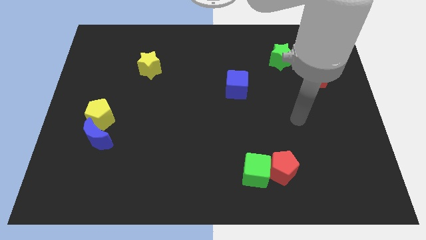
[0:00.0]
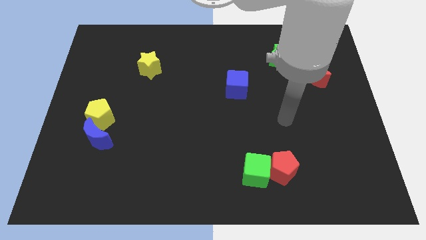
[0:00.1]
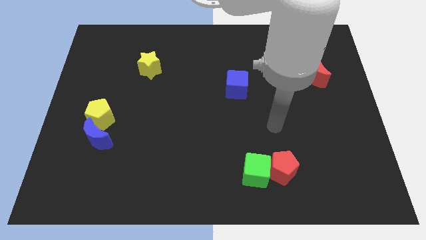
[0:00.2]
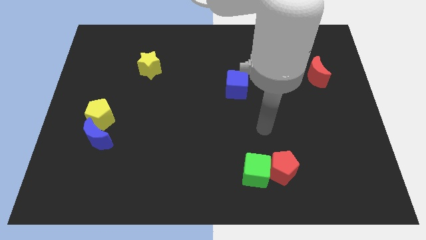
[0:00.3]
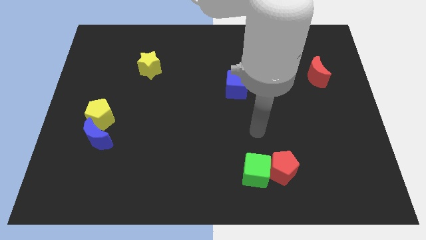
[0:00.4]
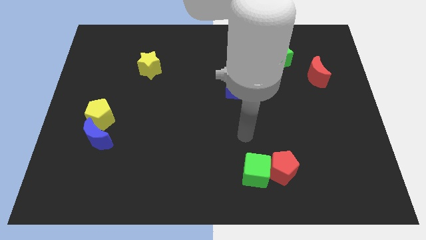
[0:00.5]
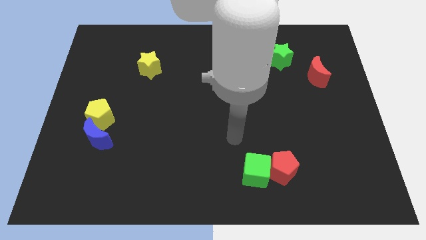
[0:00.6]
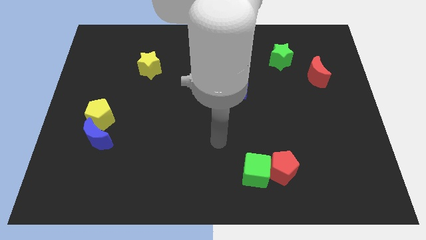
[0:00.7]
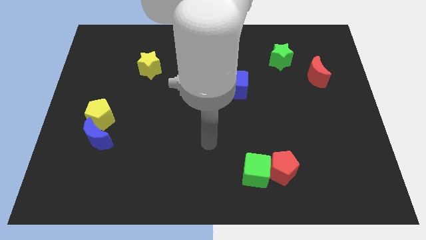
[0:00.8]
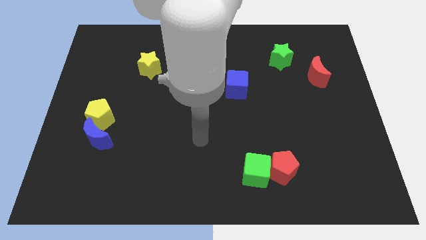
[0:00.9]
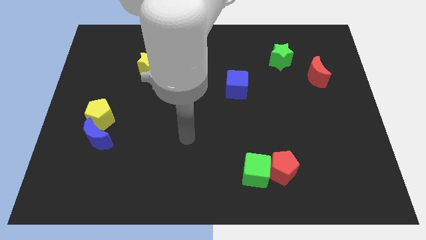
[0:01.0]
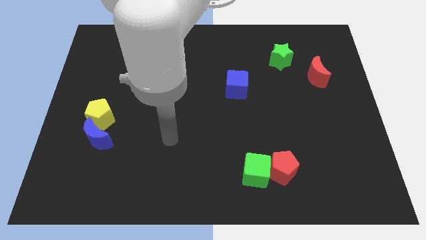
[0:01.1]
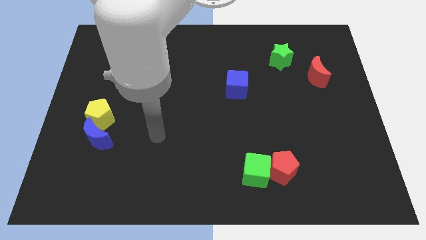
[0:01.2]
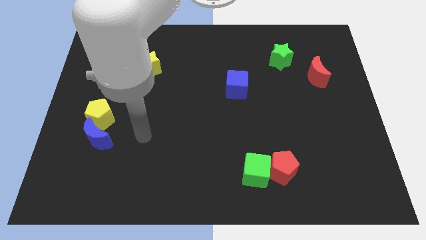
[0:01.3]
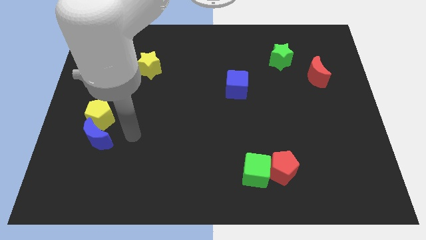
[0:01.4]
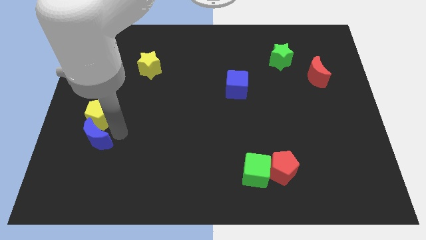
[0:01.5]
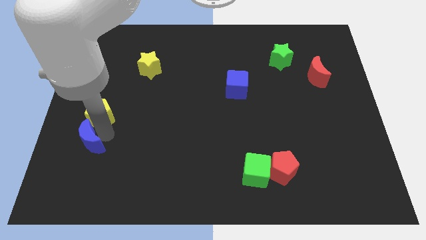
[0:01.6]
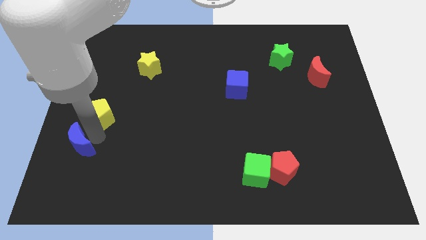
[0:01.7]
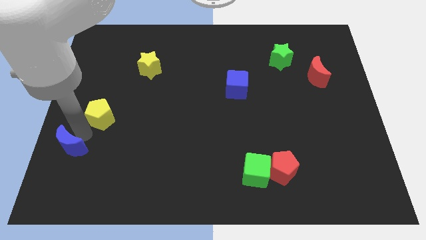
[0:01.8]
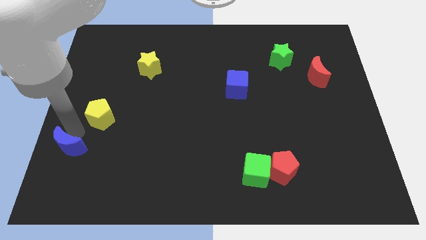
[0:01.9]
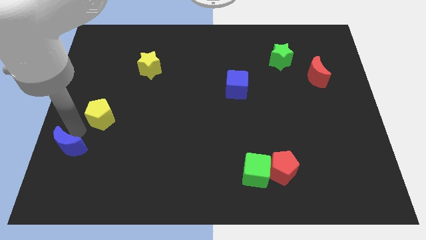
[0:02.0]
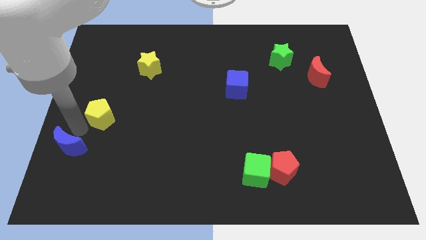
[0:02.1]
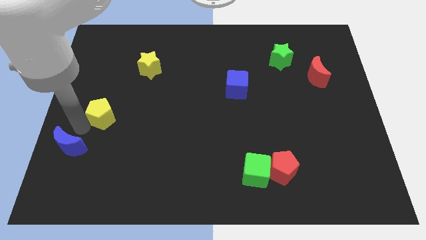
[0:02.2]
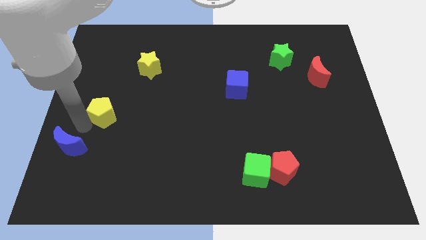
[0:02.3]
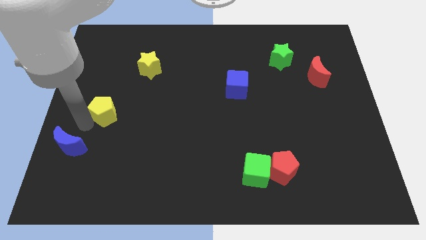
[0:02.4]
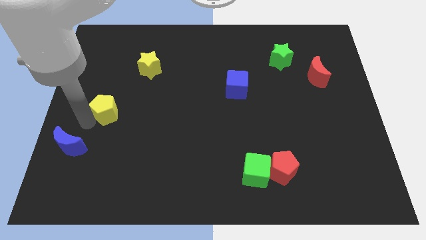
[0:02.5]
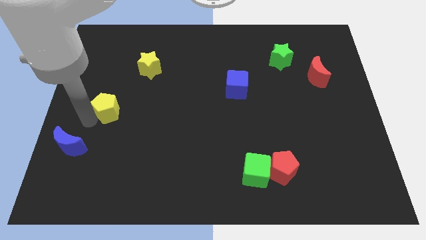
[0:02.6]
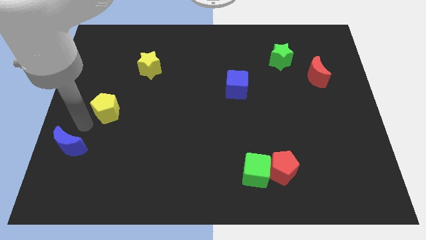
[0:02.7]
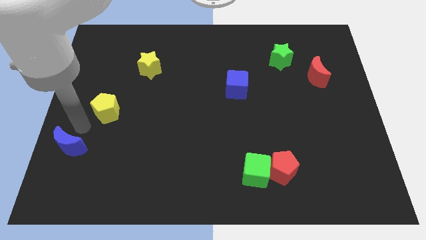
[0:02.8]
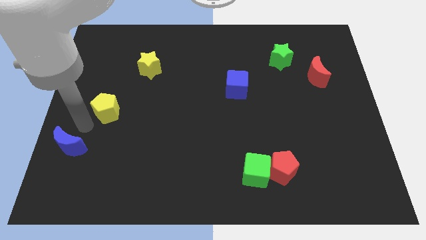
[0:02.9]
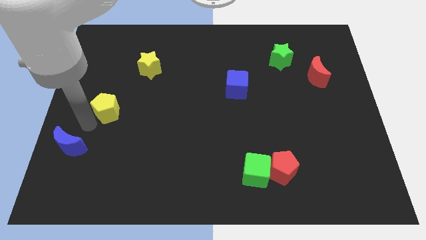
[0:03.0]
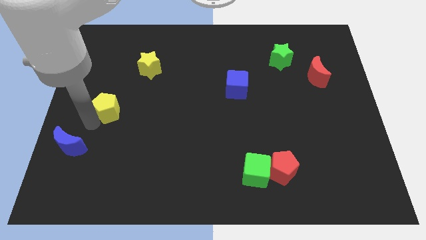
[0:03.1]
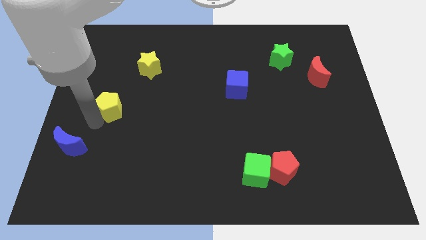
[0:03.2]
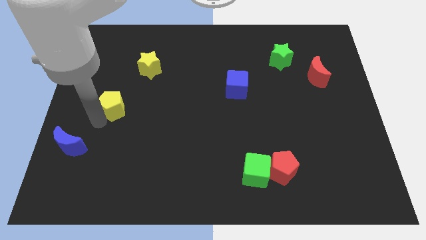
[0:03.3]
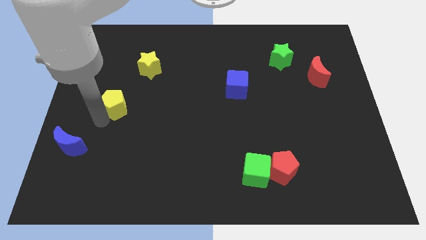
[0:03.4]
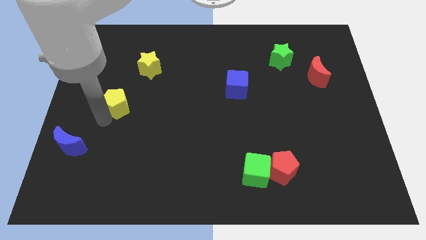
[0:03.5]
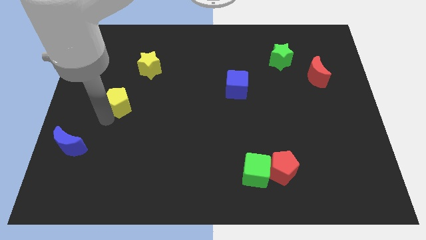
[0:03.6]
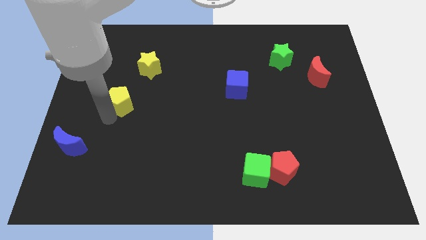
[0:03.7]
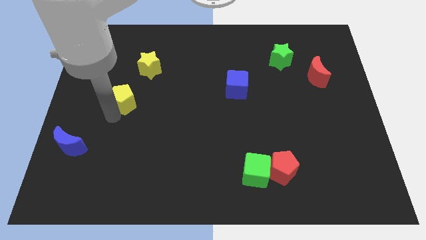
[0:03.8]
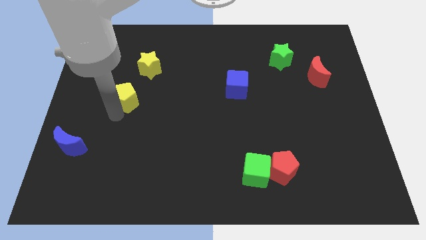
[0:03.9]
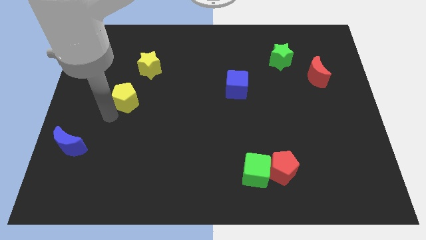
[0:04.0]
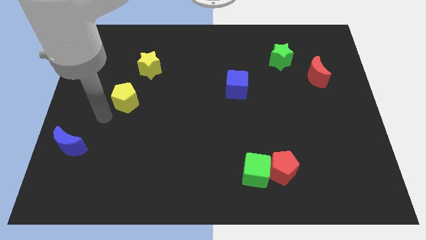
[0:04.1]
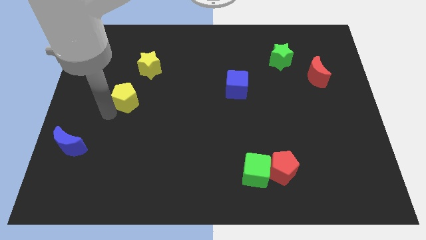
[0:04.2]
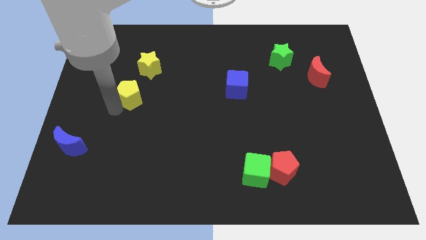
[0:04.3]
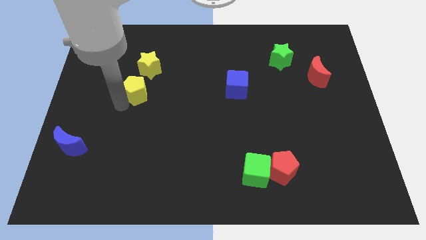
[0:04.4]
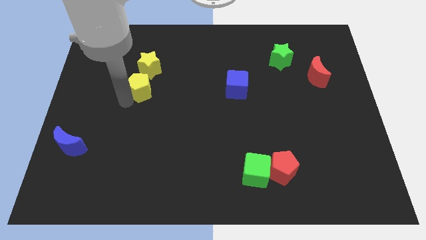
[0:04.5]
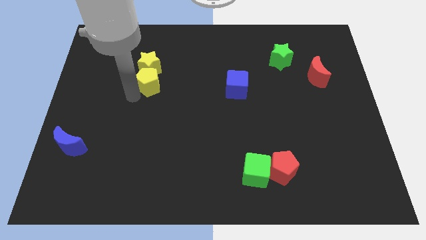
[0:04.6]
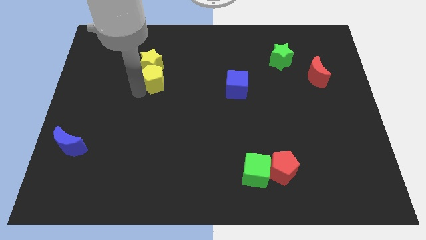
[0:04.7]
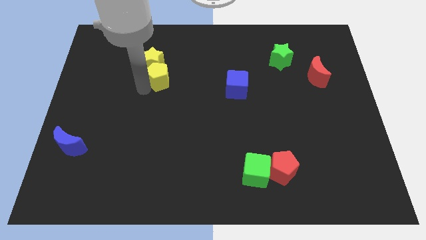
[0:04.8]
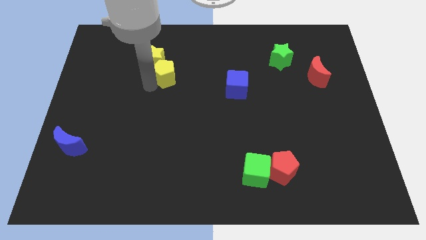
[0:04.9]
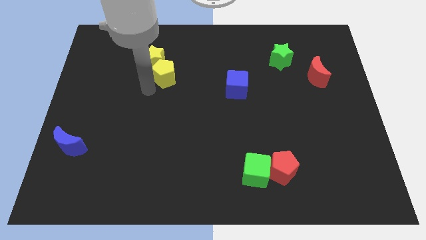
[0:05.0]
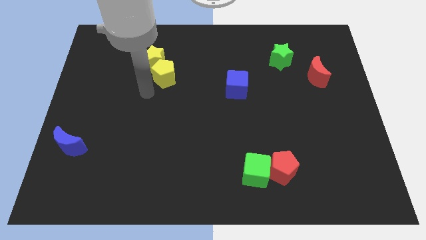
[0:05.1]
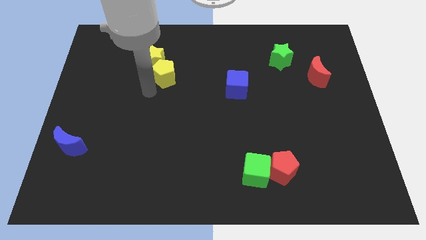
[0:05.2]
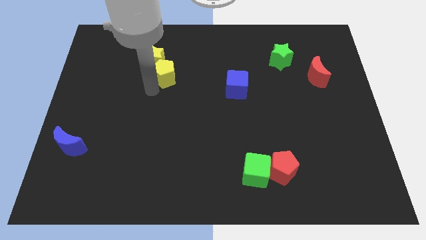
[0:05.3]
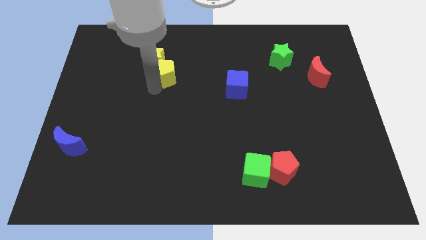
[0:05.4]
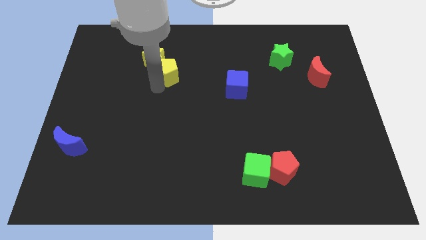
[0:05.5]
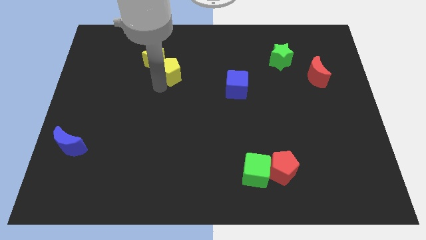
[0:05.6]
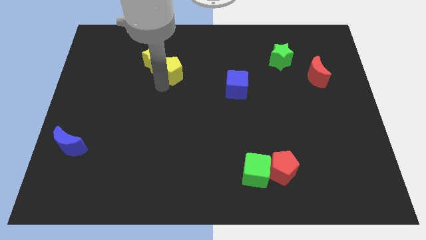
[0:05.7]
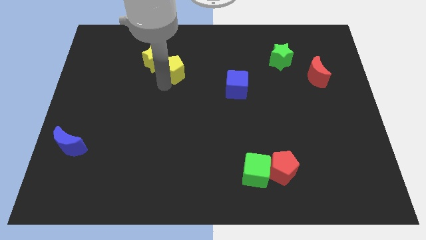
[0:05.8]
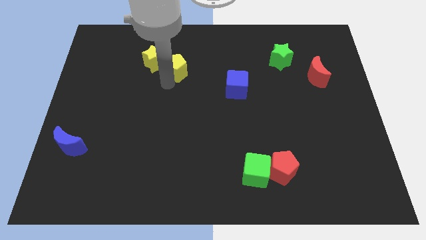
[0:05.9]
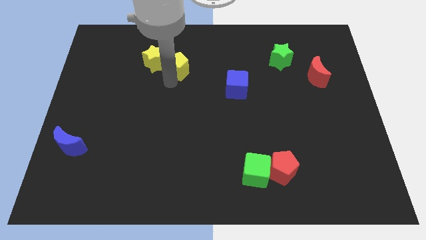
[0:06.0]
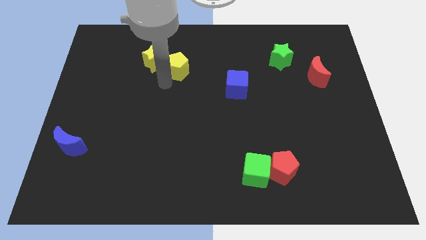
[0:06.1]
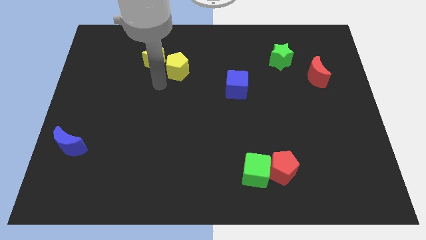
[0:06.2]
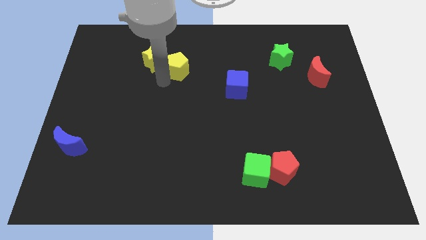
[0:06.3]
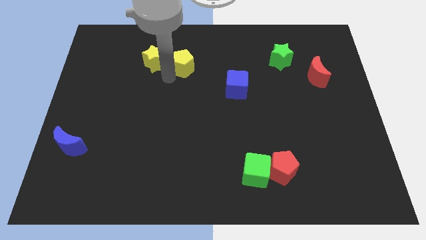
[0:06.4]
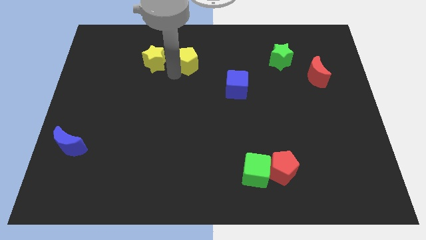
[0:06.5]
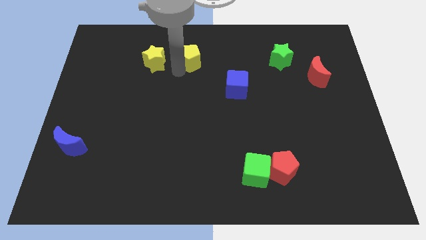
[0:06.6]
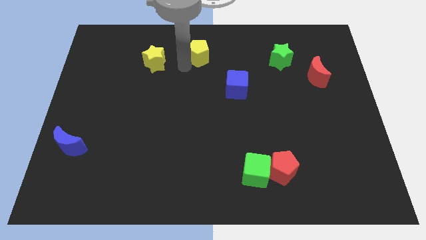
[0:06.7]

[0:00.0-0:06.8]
push the yellow pentagon to the top
